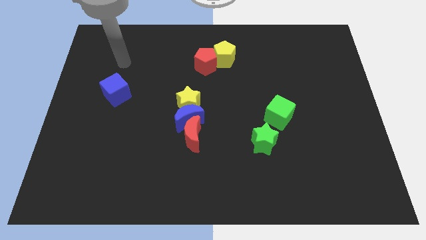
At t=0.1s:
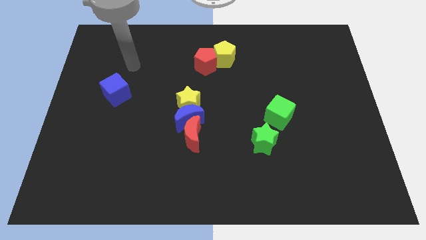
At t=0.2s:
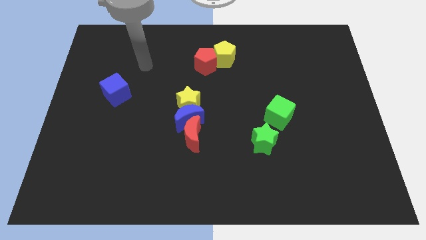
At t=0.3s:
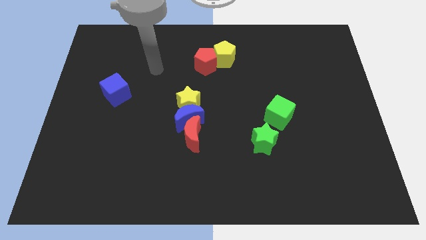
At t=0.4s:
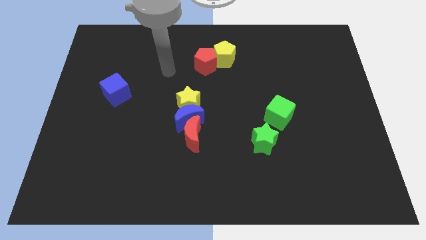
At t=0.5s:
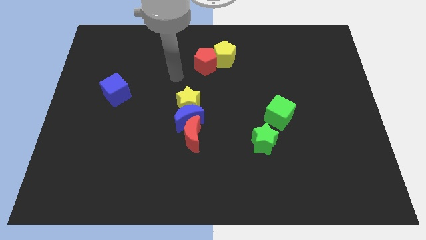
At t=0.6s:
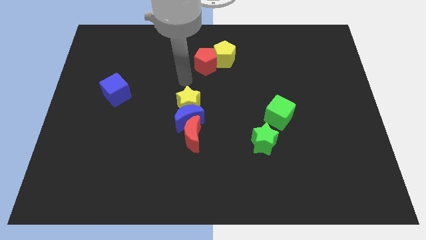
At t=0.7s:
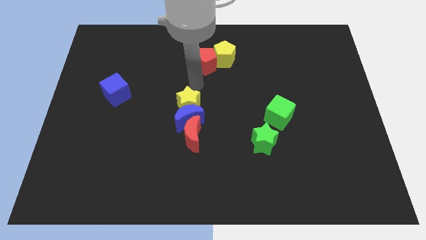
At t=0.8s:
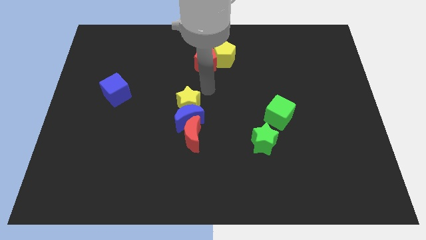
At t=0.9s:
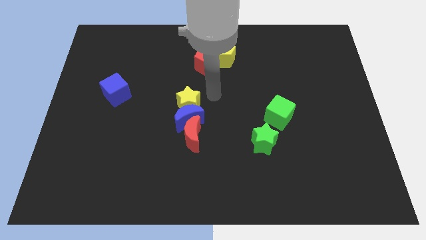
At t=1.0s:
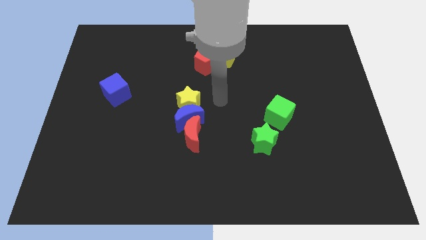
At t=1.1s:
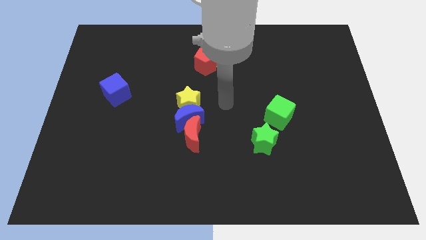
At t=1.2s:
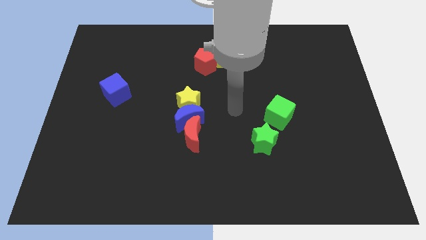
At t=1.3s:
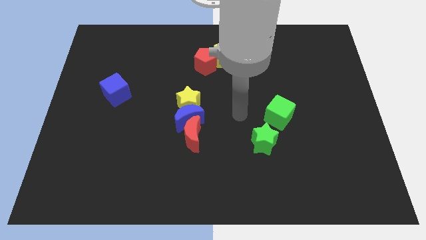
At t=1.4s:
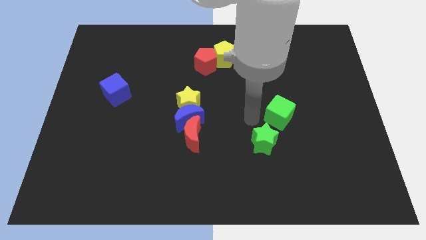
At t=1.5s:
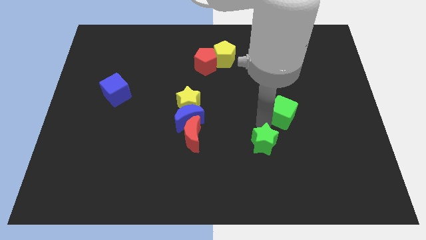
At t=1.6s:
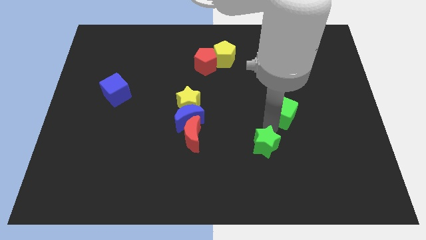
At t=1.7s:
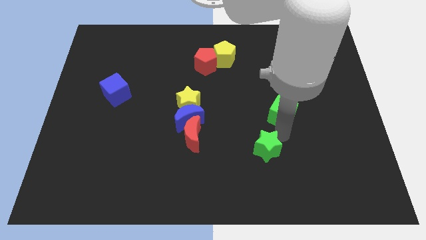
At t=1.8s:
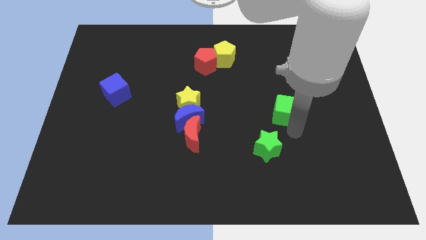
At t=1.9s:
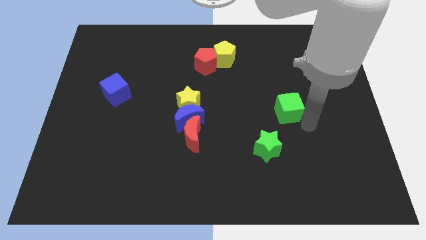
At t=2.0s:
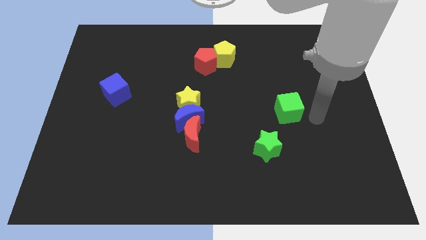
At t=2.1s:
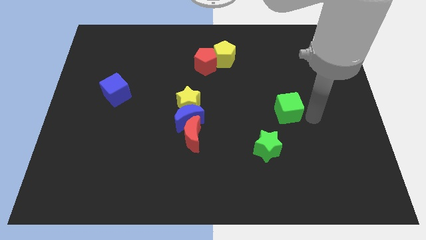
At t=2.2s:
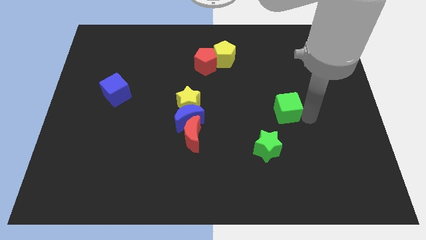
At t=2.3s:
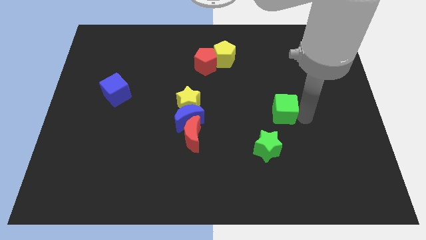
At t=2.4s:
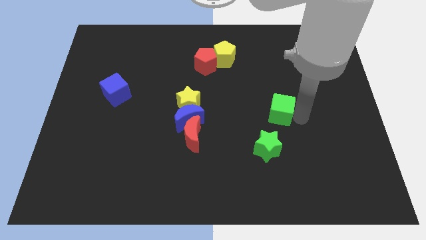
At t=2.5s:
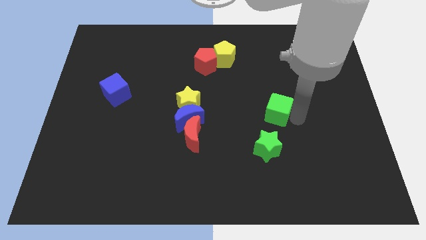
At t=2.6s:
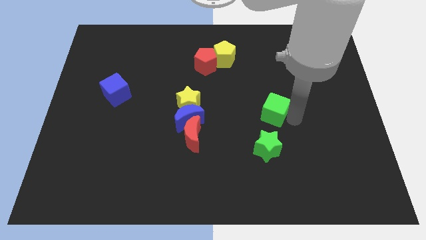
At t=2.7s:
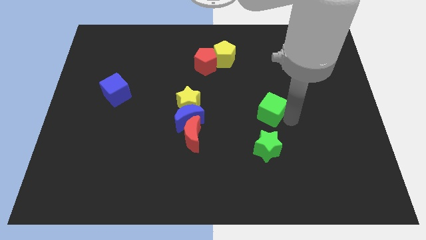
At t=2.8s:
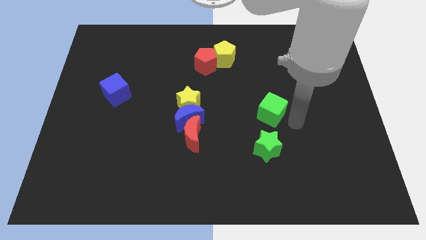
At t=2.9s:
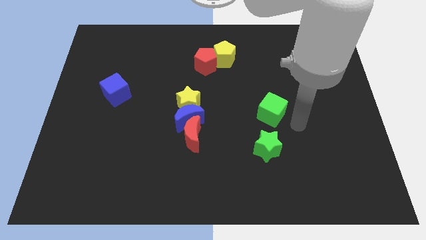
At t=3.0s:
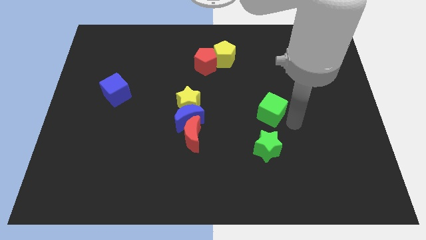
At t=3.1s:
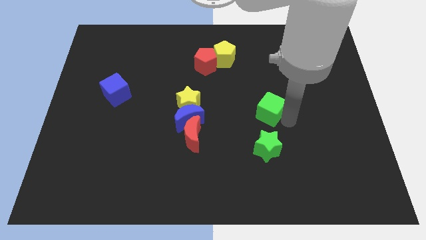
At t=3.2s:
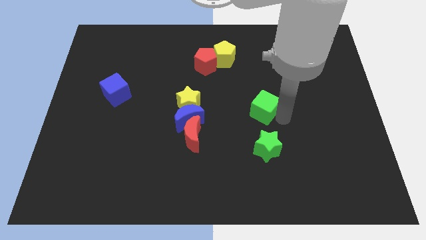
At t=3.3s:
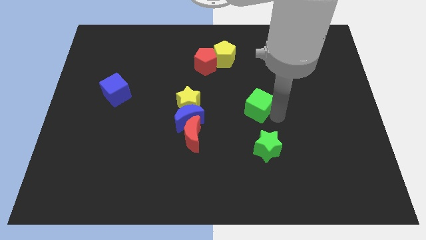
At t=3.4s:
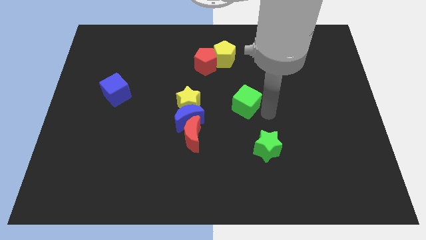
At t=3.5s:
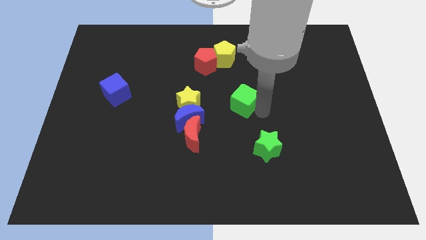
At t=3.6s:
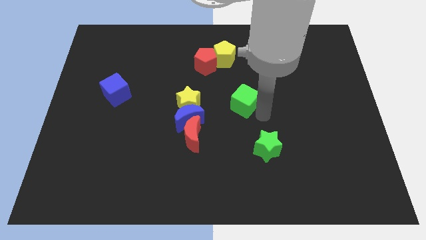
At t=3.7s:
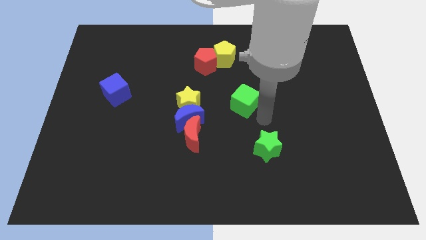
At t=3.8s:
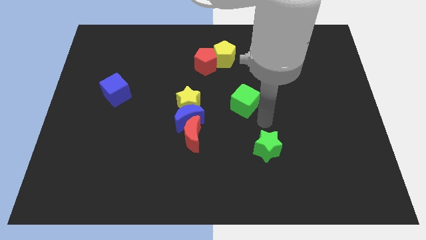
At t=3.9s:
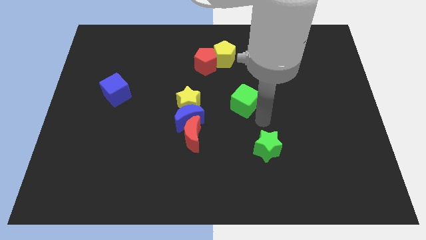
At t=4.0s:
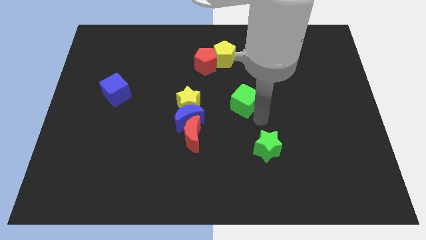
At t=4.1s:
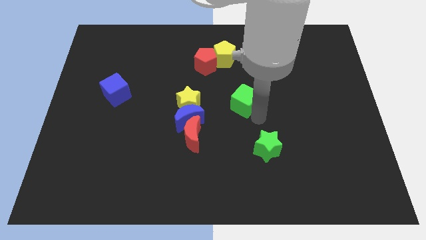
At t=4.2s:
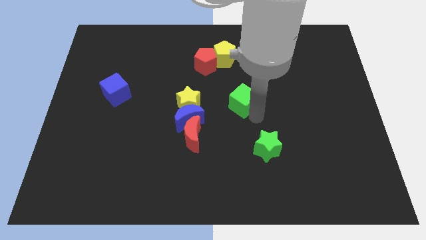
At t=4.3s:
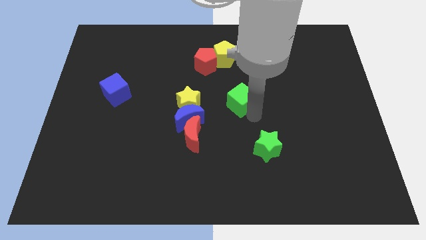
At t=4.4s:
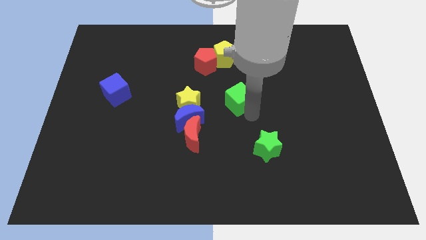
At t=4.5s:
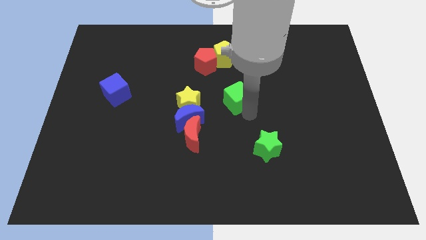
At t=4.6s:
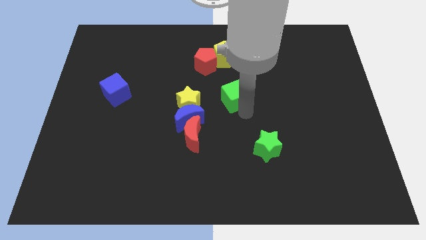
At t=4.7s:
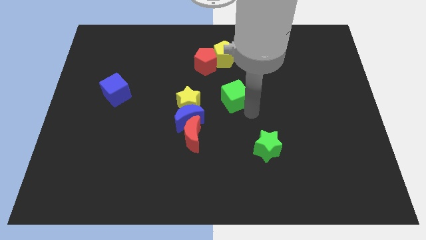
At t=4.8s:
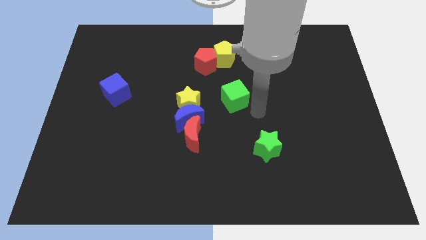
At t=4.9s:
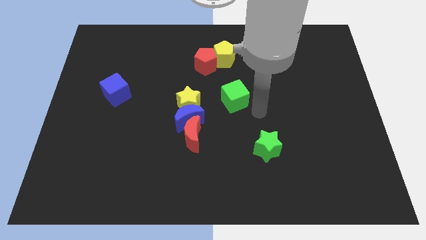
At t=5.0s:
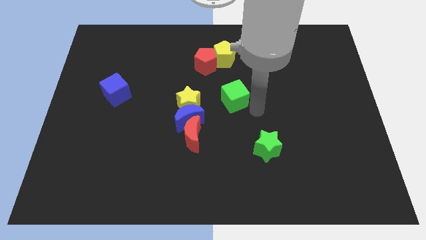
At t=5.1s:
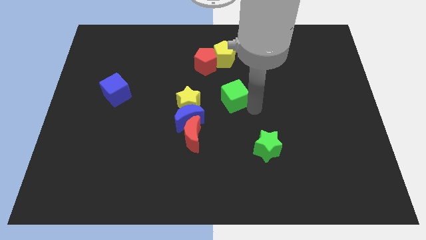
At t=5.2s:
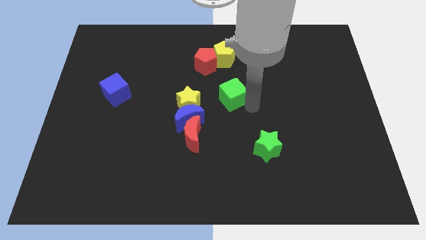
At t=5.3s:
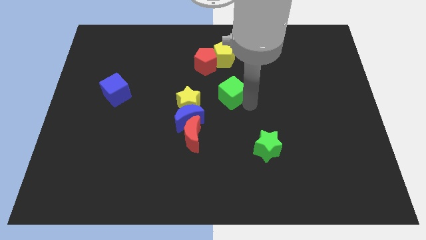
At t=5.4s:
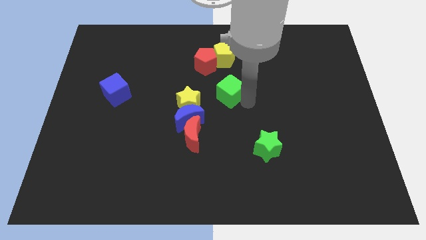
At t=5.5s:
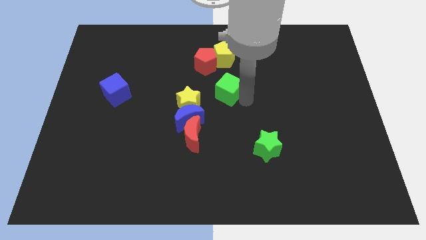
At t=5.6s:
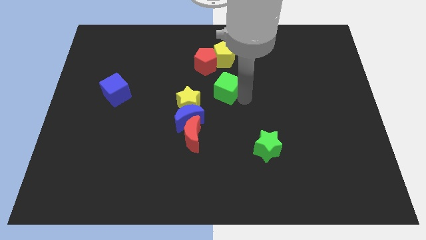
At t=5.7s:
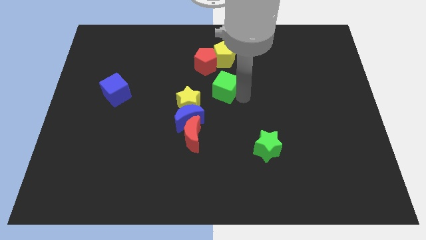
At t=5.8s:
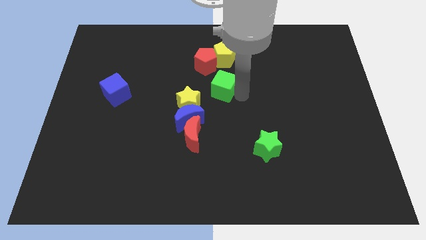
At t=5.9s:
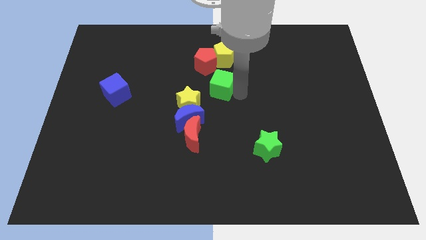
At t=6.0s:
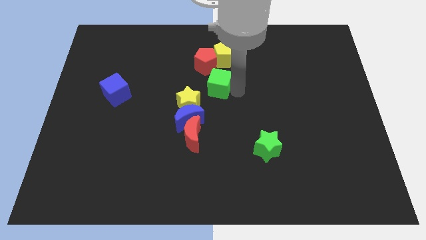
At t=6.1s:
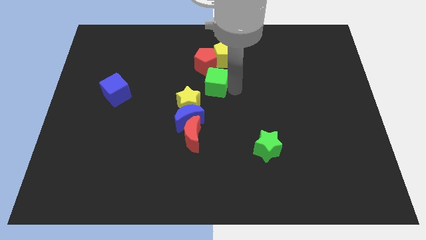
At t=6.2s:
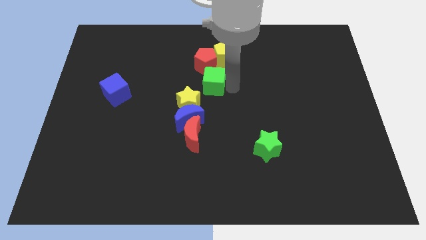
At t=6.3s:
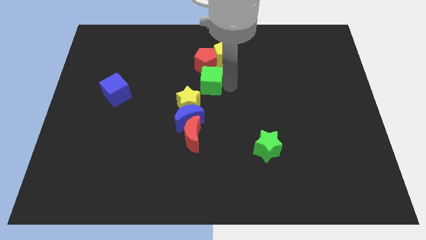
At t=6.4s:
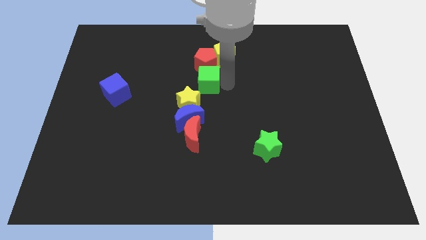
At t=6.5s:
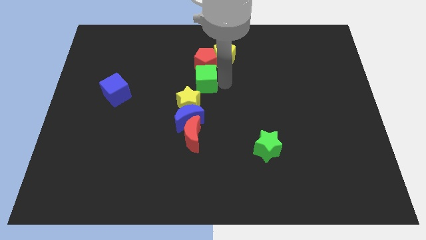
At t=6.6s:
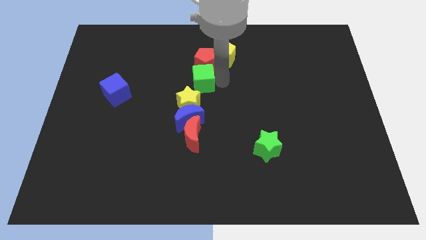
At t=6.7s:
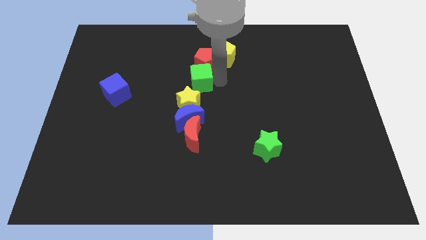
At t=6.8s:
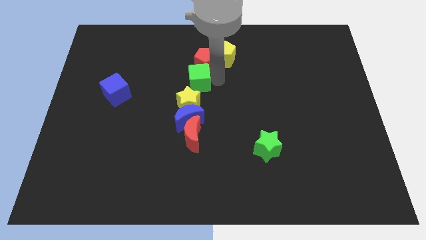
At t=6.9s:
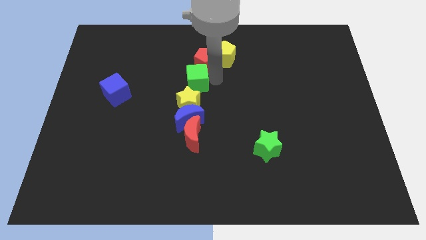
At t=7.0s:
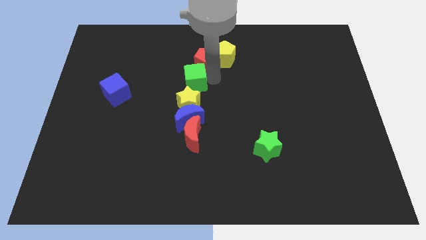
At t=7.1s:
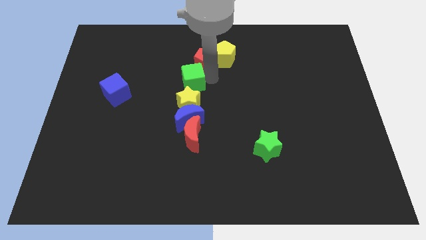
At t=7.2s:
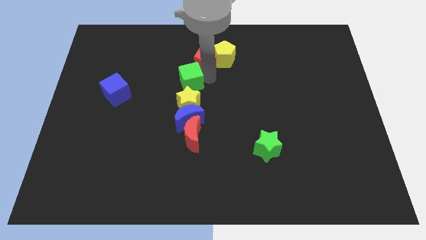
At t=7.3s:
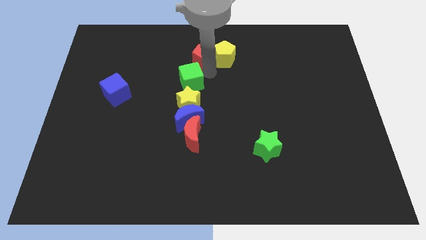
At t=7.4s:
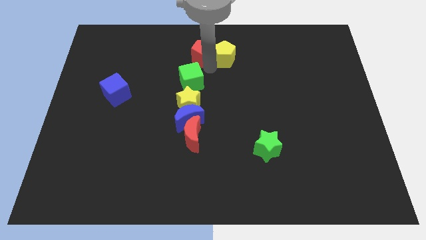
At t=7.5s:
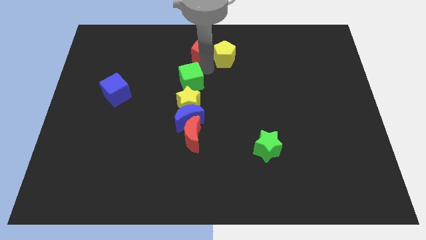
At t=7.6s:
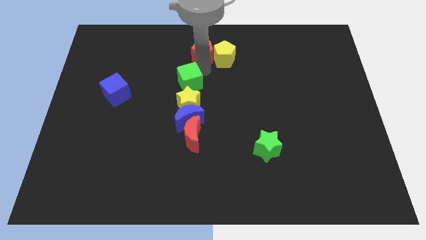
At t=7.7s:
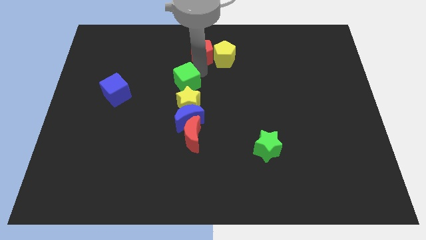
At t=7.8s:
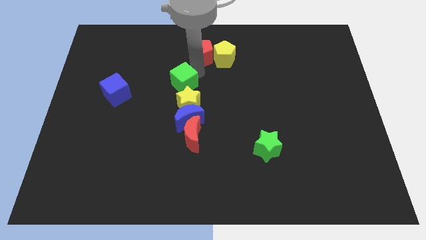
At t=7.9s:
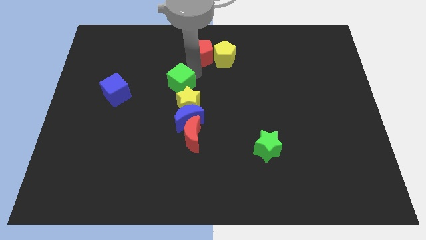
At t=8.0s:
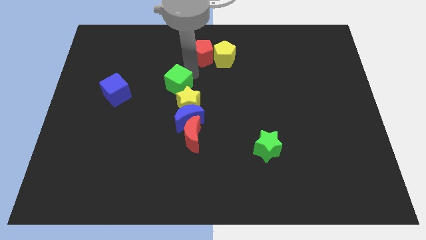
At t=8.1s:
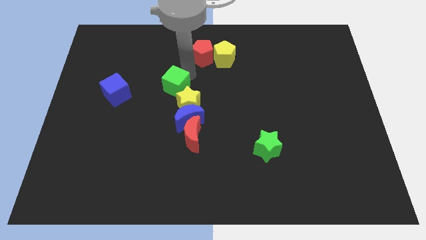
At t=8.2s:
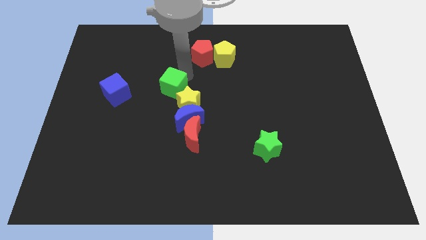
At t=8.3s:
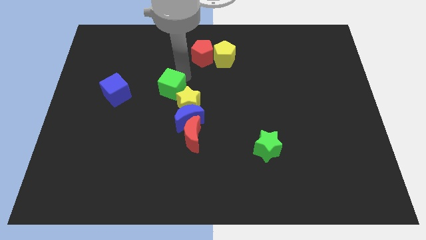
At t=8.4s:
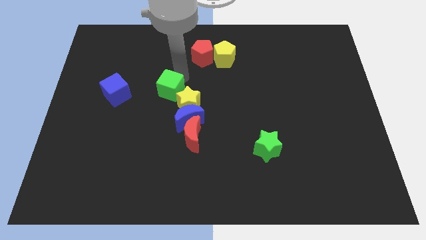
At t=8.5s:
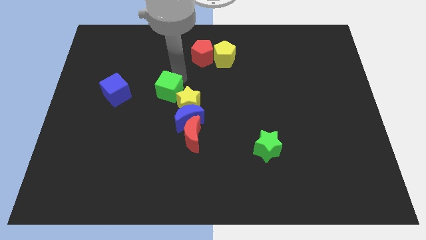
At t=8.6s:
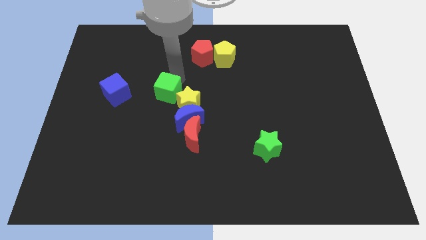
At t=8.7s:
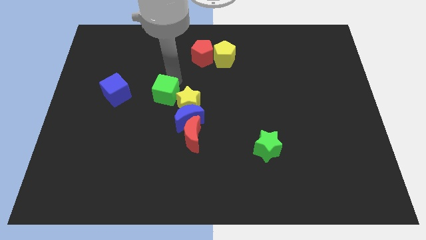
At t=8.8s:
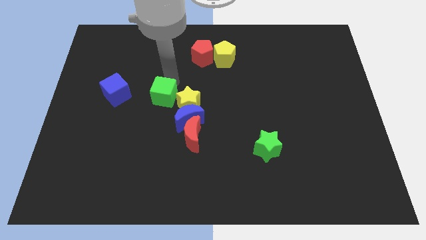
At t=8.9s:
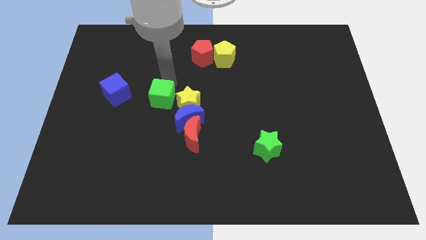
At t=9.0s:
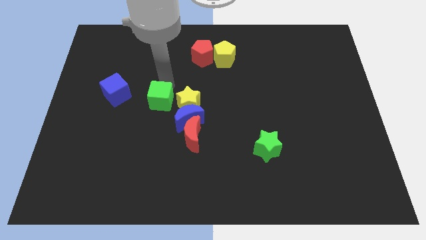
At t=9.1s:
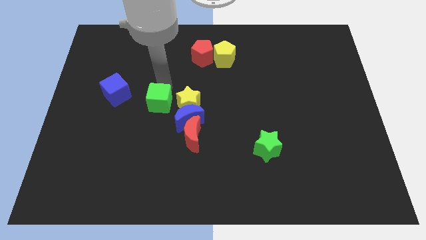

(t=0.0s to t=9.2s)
push the green cube diagonally up and to the left of the red moon
